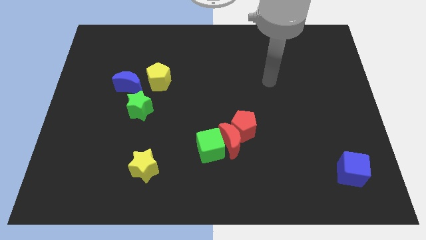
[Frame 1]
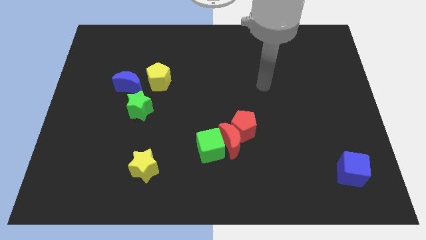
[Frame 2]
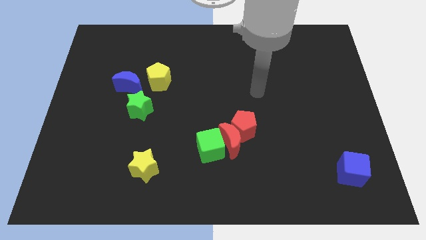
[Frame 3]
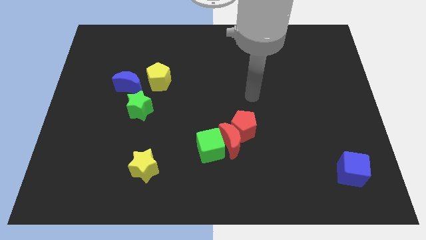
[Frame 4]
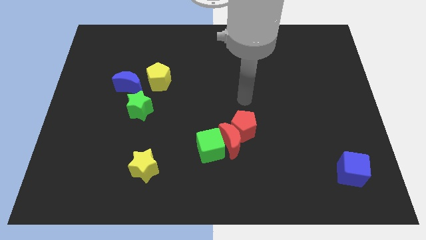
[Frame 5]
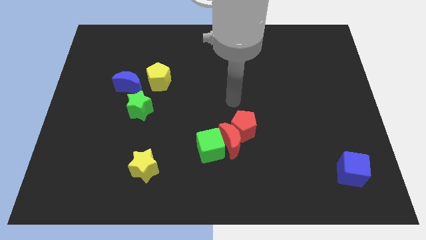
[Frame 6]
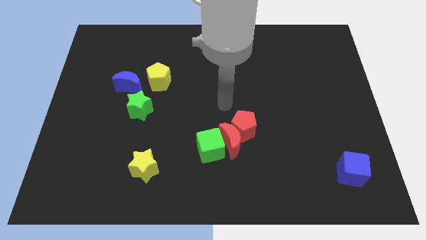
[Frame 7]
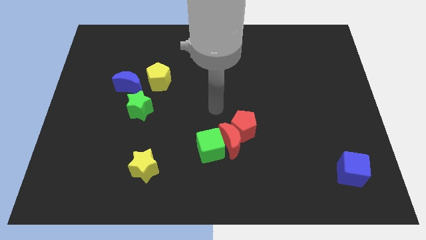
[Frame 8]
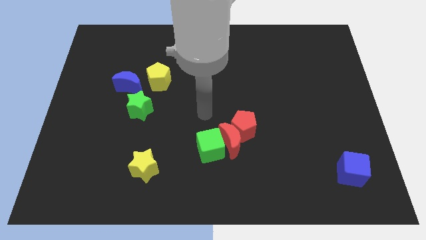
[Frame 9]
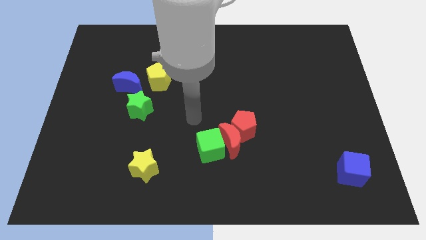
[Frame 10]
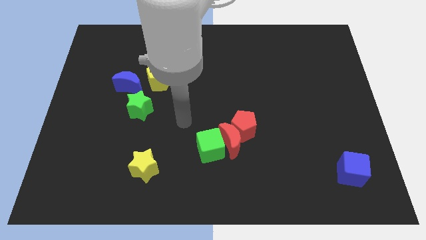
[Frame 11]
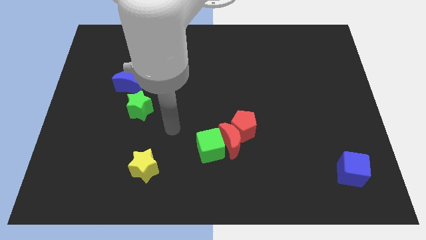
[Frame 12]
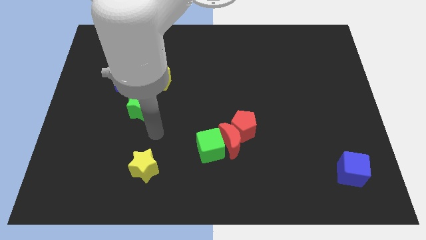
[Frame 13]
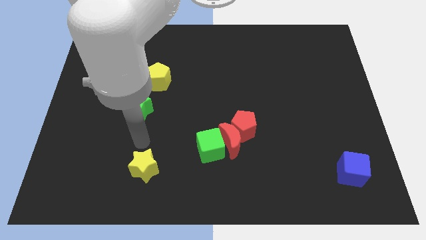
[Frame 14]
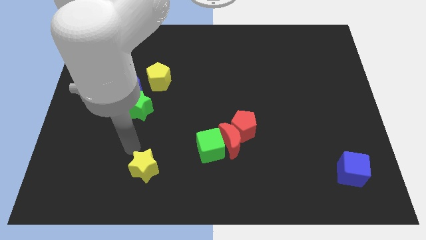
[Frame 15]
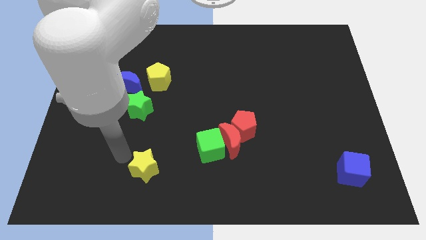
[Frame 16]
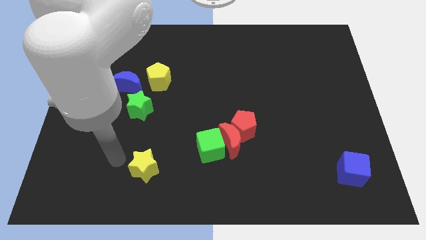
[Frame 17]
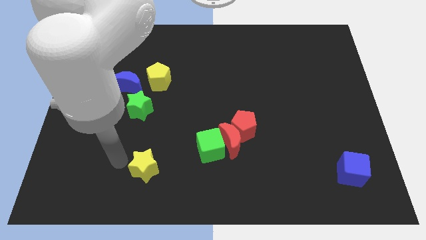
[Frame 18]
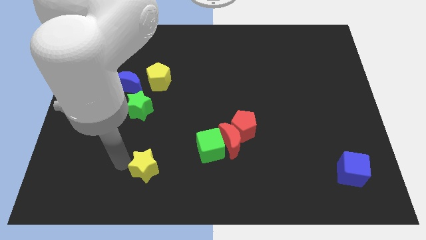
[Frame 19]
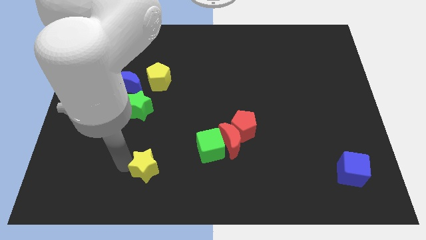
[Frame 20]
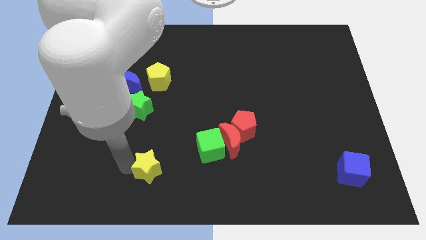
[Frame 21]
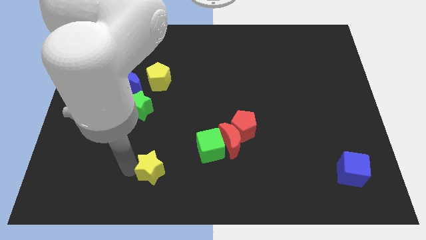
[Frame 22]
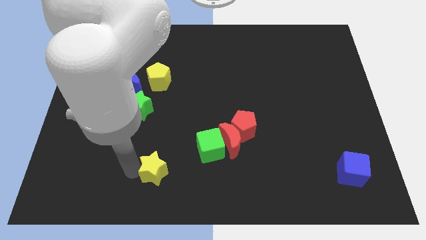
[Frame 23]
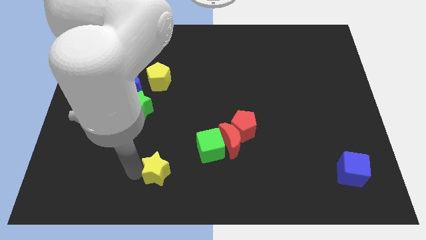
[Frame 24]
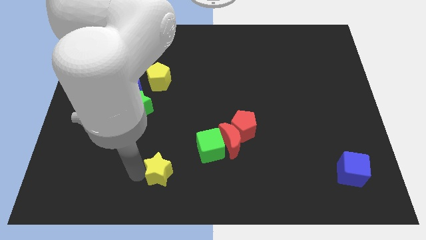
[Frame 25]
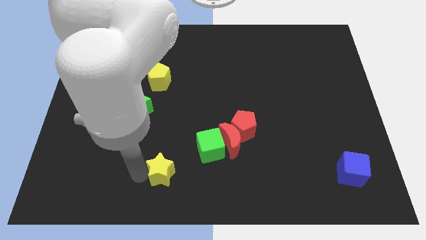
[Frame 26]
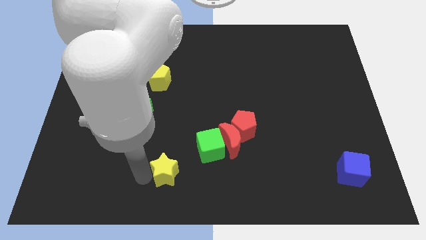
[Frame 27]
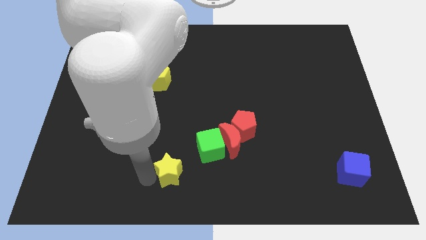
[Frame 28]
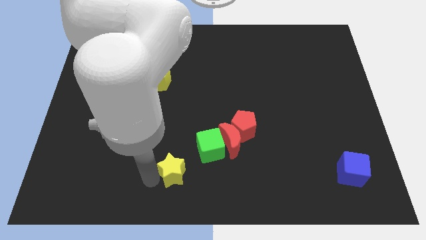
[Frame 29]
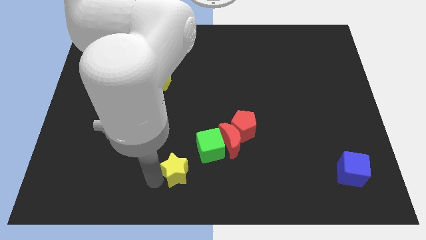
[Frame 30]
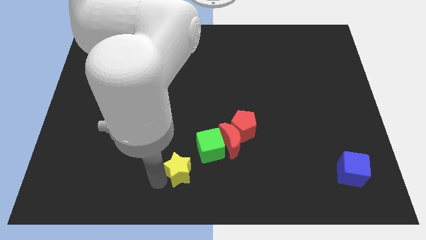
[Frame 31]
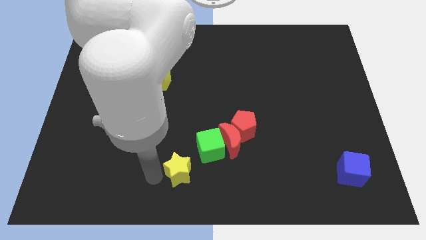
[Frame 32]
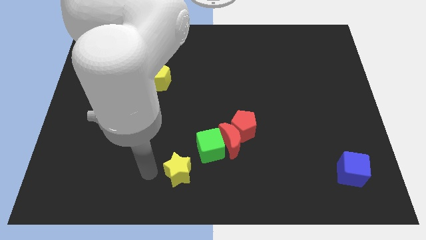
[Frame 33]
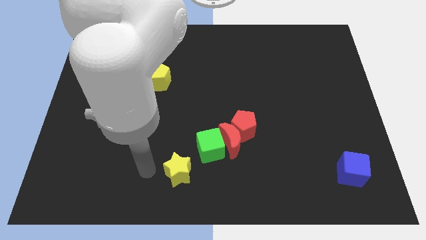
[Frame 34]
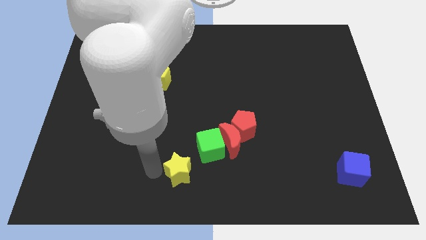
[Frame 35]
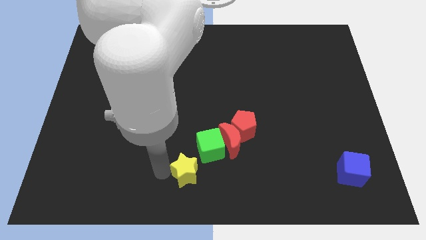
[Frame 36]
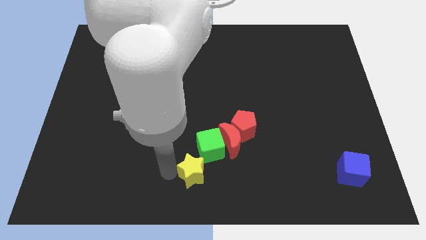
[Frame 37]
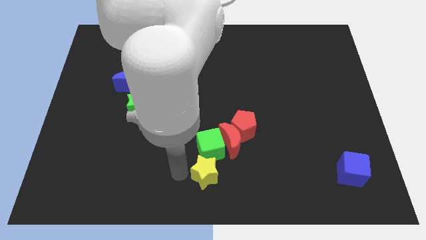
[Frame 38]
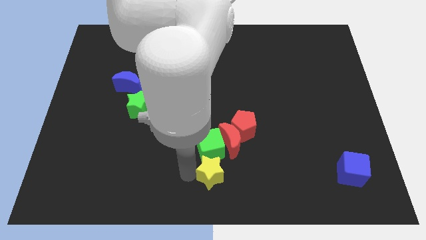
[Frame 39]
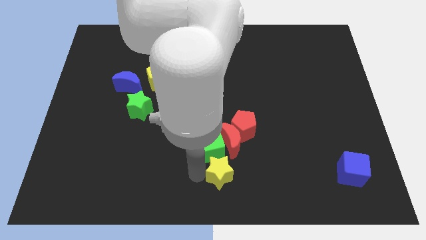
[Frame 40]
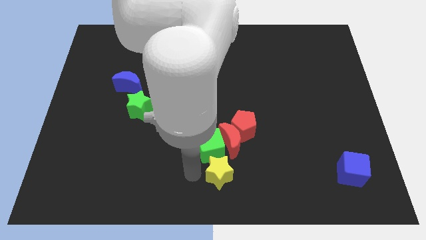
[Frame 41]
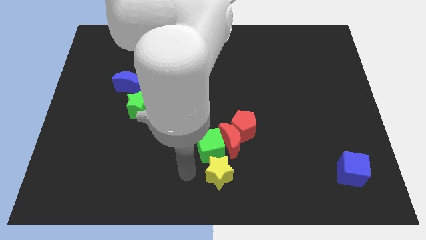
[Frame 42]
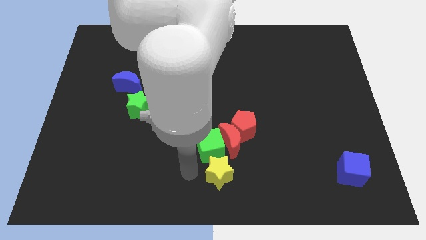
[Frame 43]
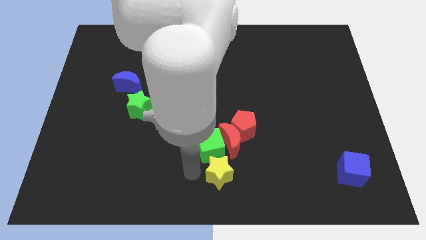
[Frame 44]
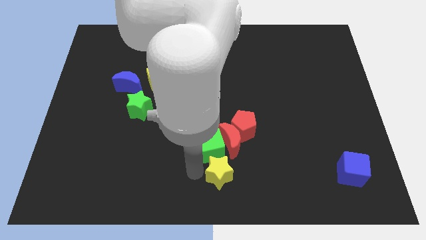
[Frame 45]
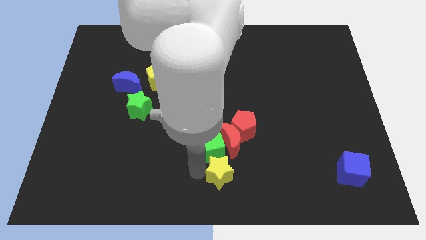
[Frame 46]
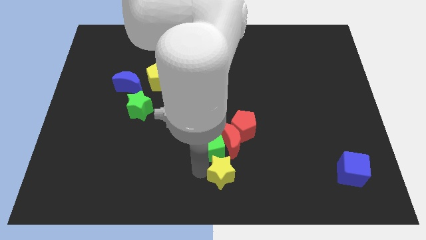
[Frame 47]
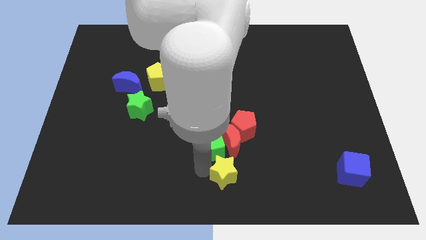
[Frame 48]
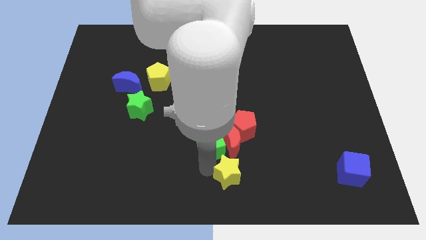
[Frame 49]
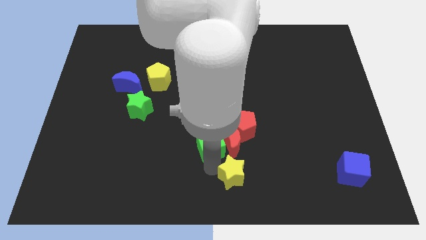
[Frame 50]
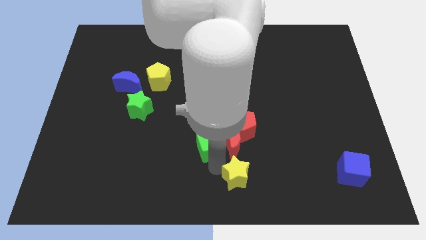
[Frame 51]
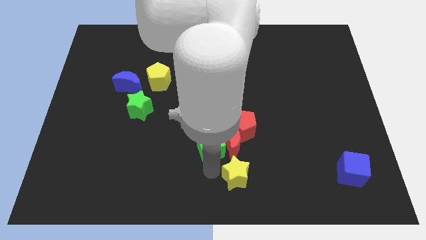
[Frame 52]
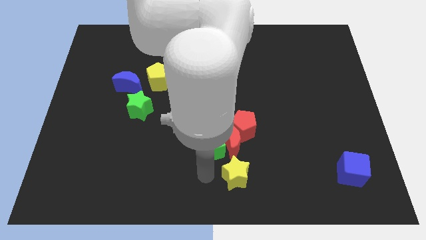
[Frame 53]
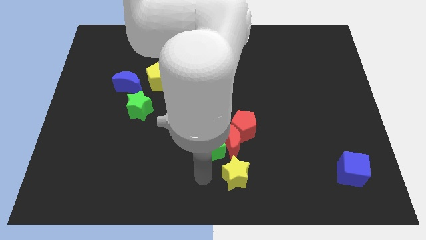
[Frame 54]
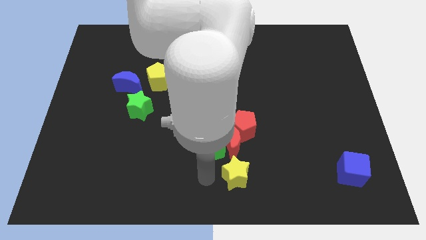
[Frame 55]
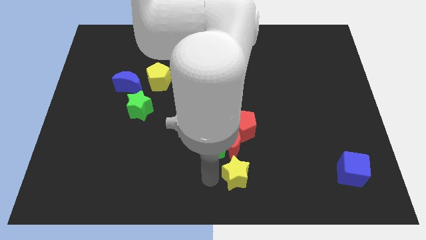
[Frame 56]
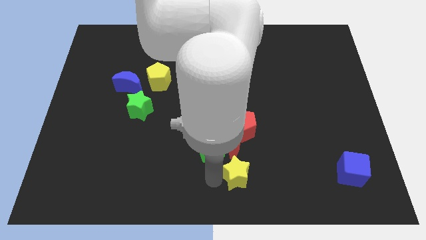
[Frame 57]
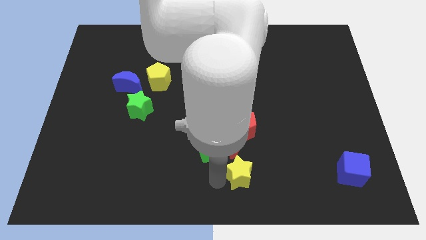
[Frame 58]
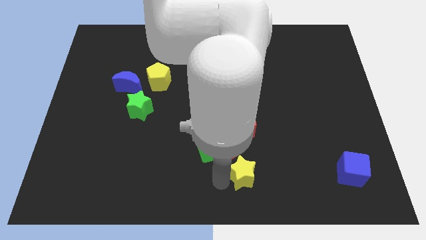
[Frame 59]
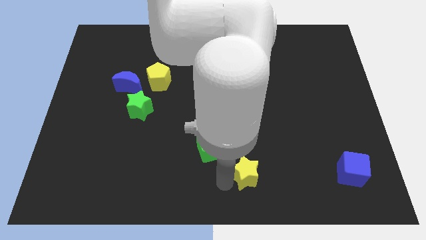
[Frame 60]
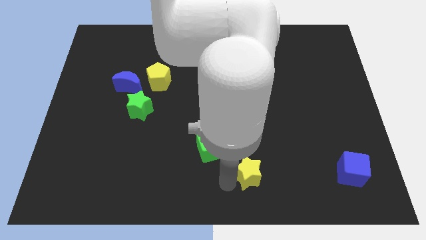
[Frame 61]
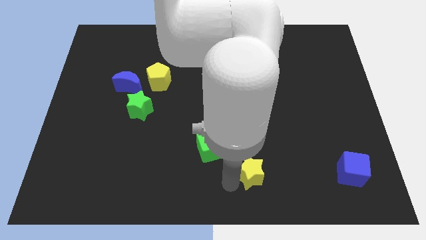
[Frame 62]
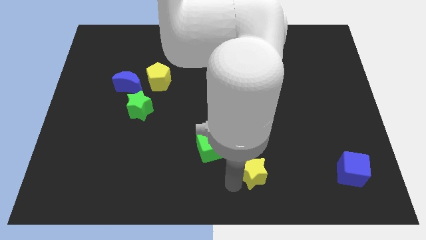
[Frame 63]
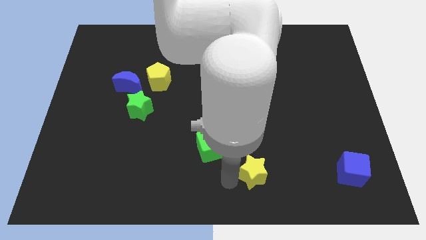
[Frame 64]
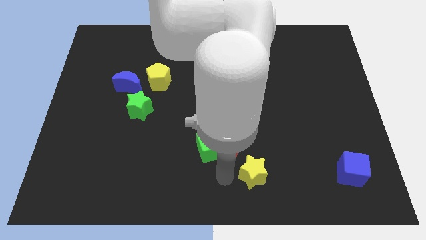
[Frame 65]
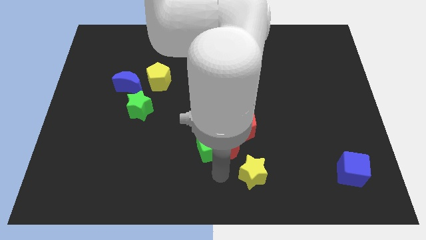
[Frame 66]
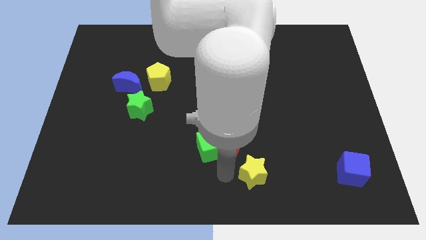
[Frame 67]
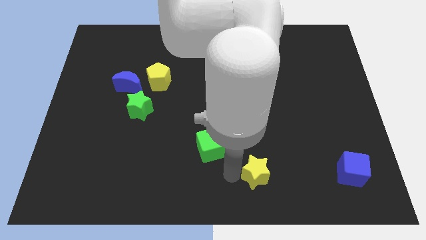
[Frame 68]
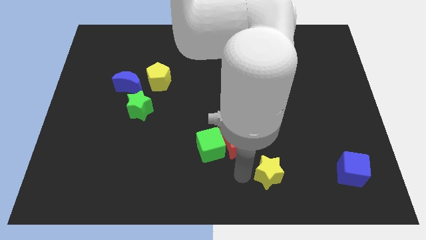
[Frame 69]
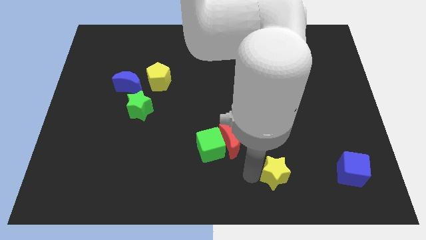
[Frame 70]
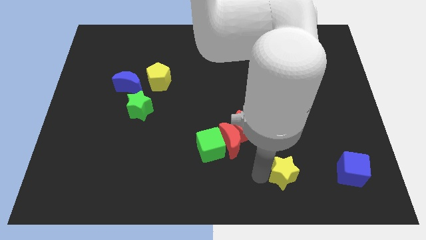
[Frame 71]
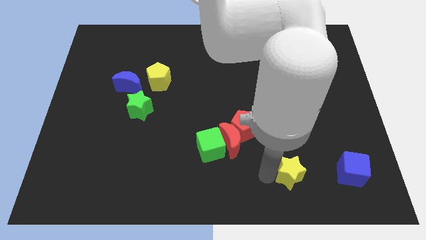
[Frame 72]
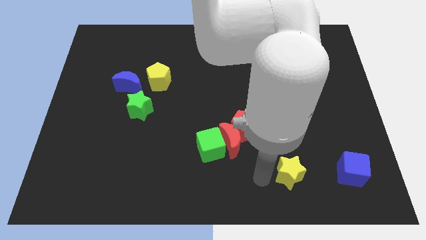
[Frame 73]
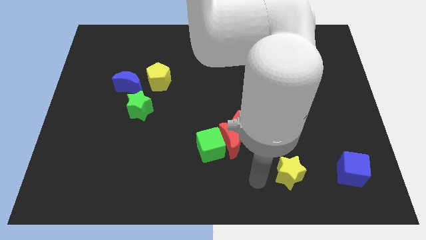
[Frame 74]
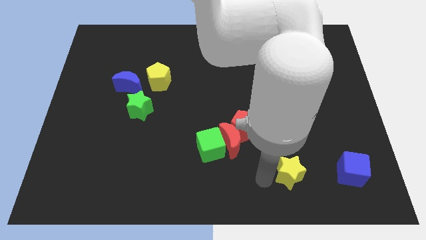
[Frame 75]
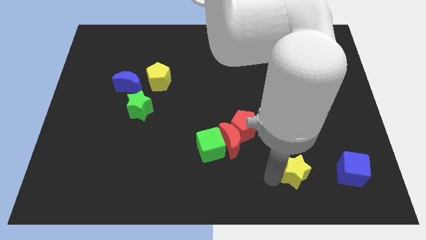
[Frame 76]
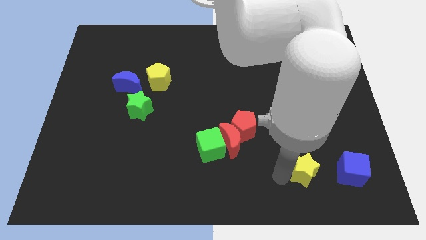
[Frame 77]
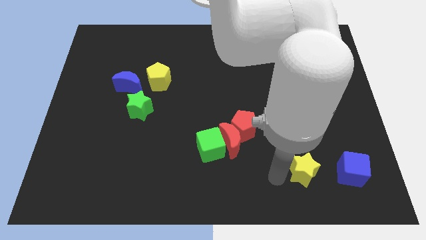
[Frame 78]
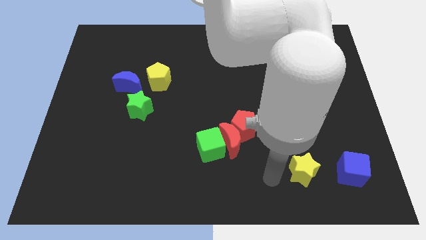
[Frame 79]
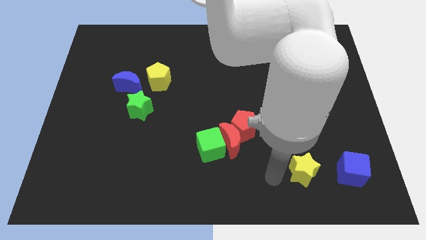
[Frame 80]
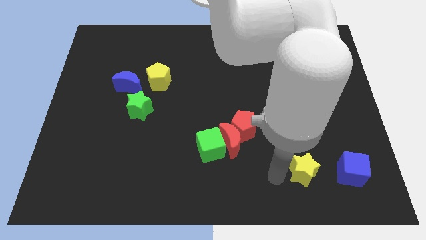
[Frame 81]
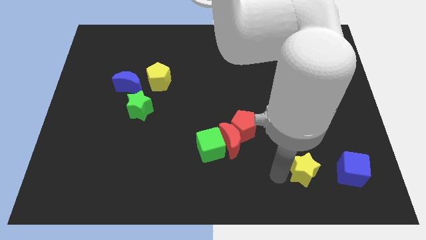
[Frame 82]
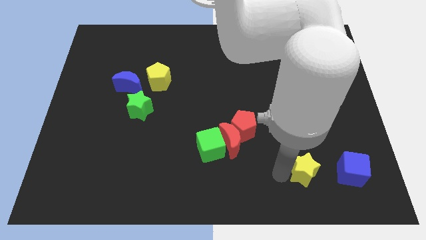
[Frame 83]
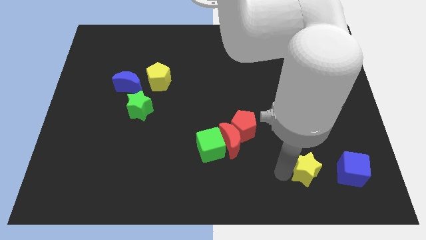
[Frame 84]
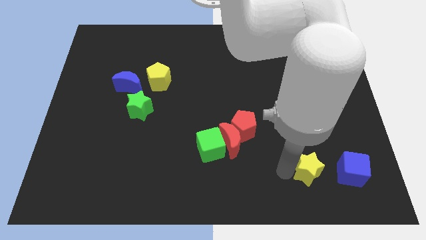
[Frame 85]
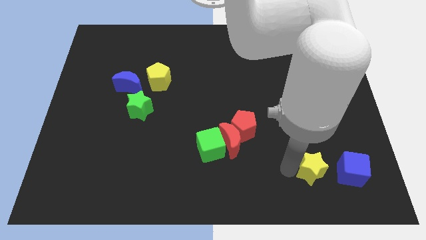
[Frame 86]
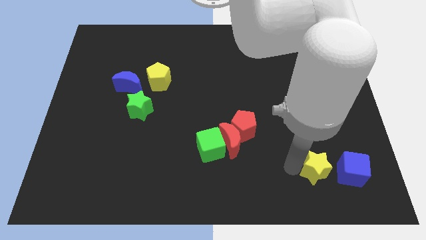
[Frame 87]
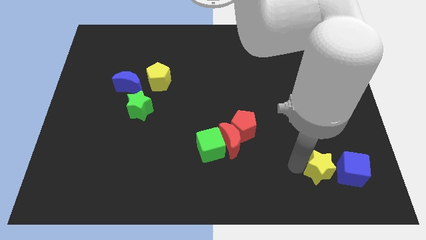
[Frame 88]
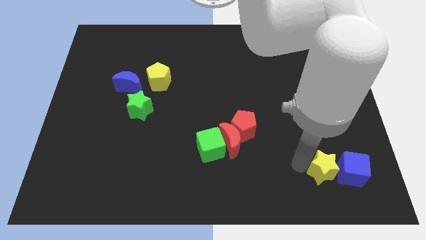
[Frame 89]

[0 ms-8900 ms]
push the yellow star towards the blue cube
